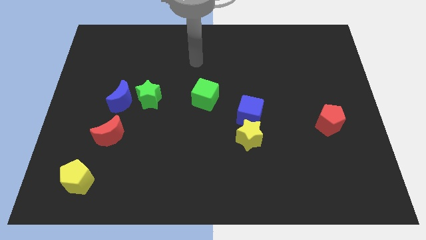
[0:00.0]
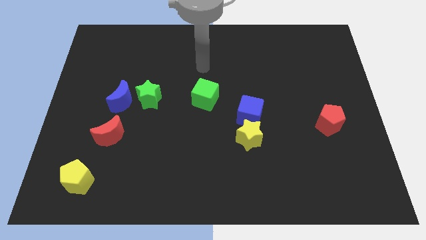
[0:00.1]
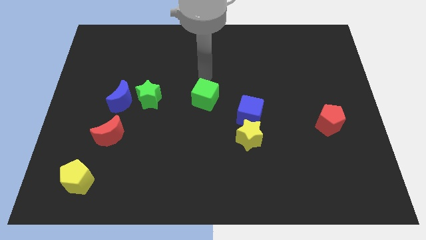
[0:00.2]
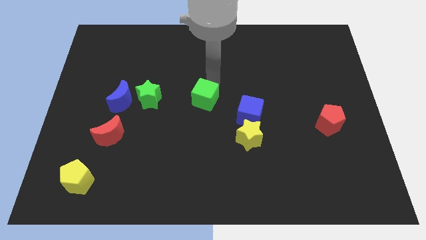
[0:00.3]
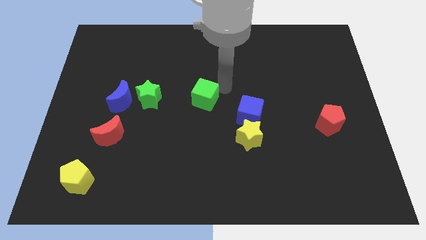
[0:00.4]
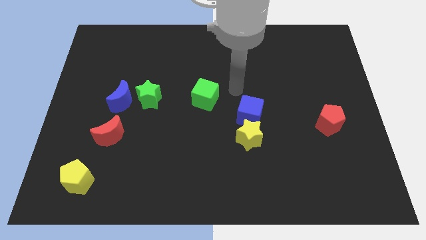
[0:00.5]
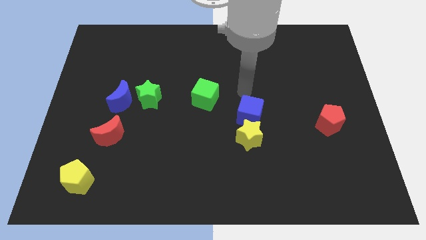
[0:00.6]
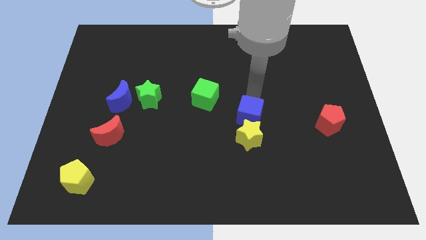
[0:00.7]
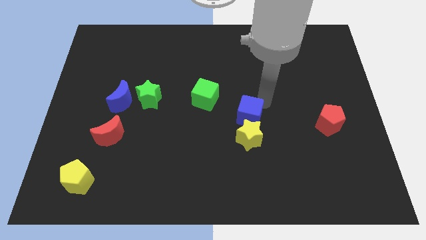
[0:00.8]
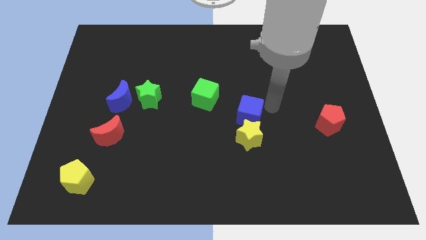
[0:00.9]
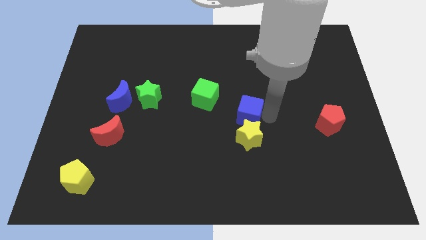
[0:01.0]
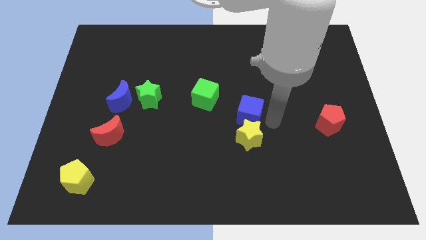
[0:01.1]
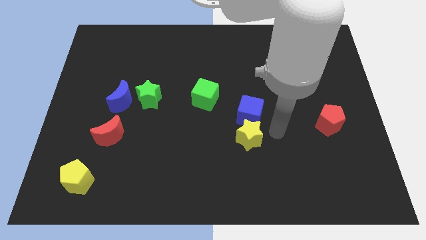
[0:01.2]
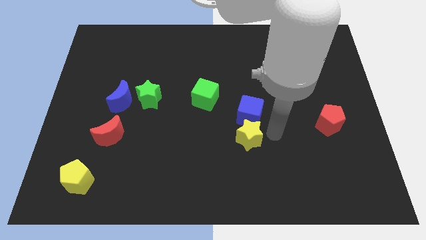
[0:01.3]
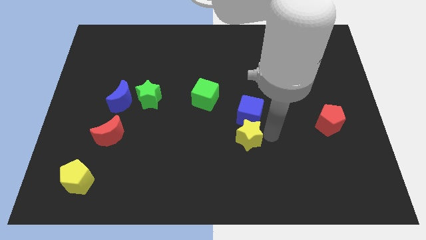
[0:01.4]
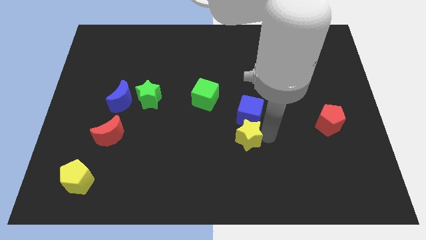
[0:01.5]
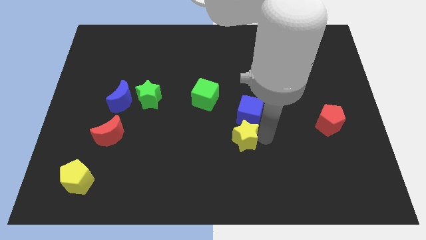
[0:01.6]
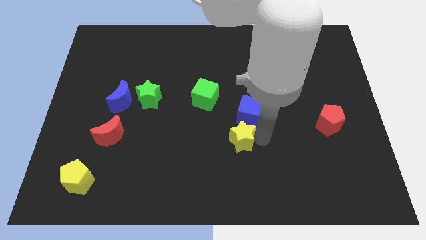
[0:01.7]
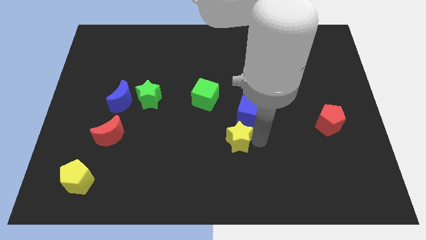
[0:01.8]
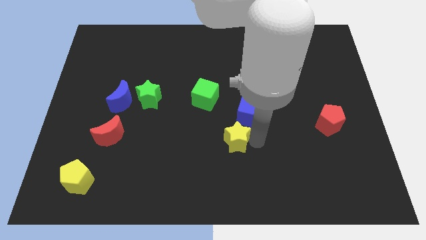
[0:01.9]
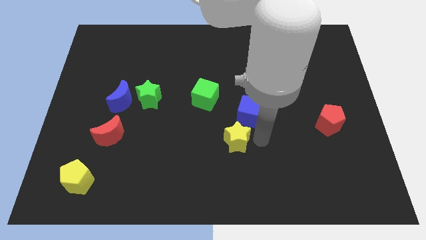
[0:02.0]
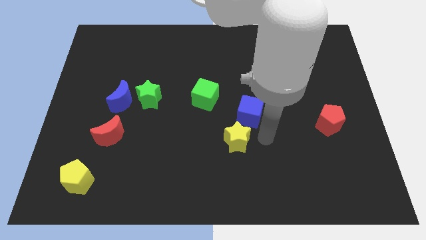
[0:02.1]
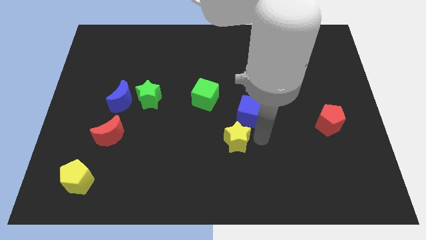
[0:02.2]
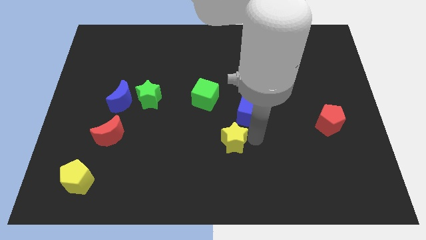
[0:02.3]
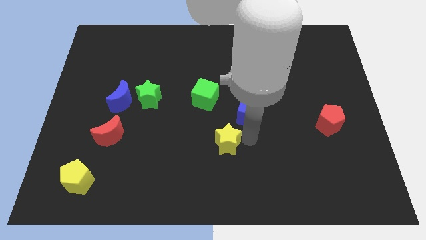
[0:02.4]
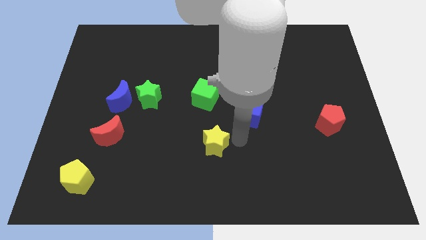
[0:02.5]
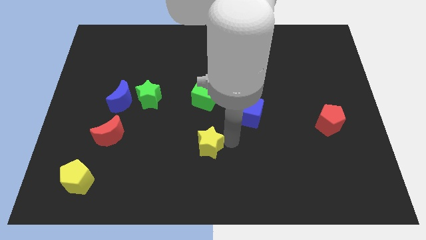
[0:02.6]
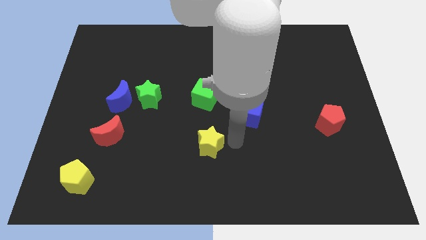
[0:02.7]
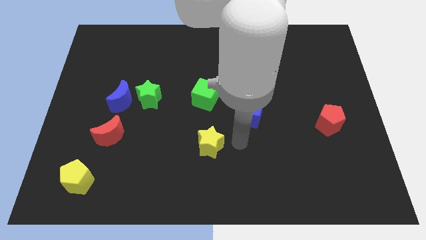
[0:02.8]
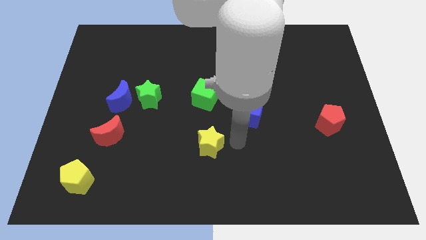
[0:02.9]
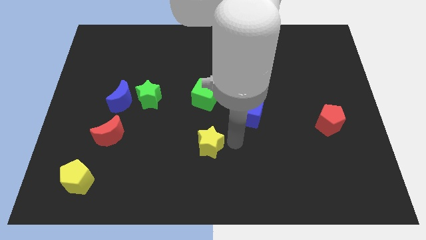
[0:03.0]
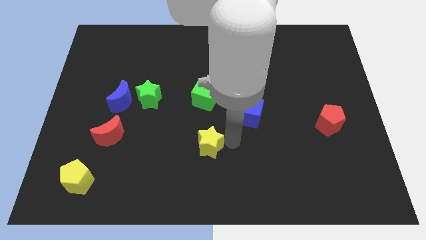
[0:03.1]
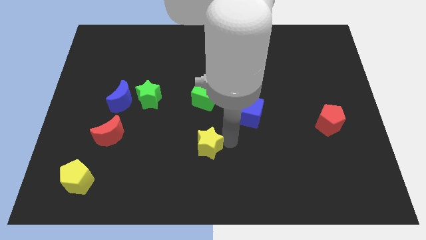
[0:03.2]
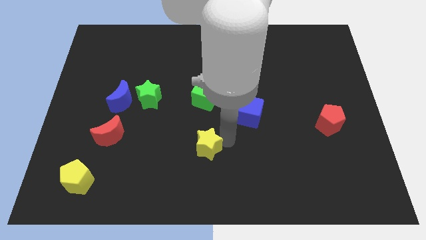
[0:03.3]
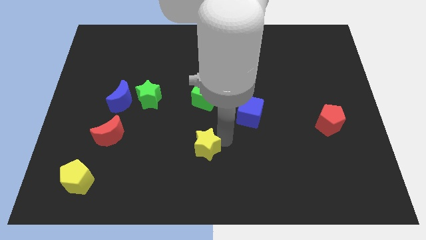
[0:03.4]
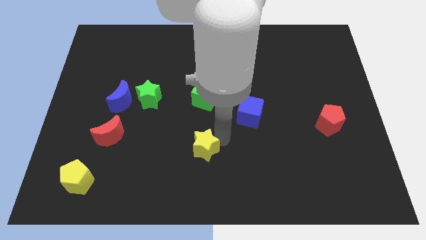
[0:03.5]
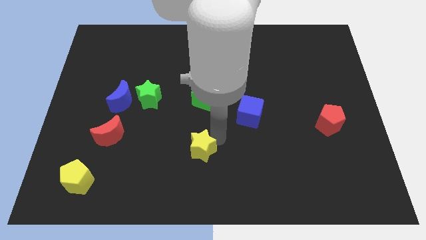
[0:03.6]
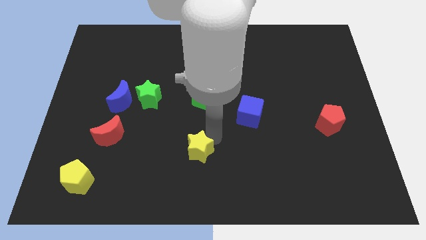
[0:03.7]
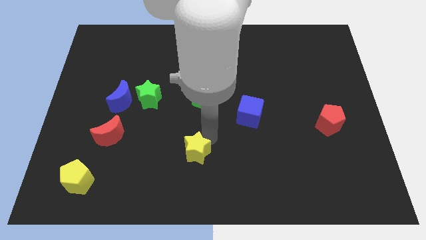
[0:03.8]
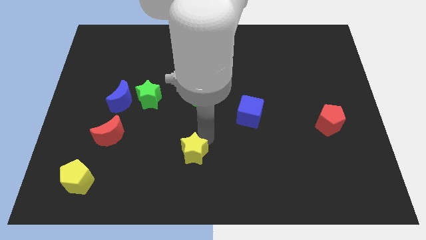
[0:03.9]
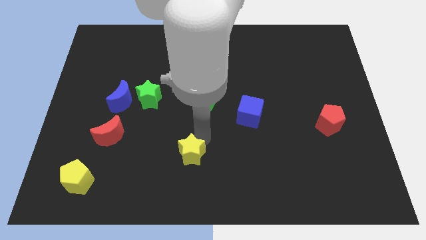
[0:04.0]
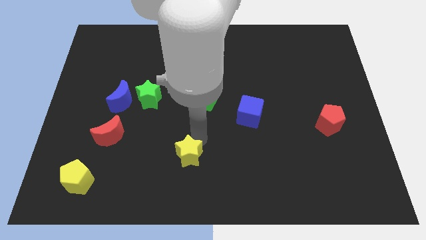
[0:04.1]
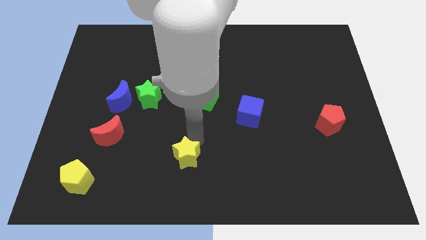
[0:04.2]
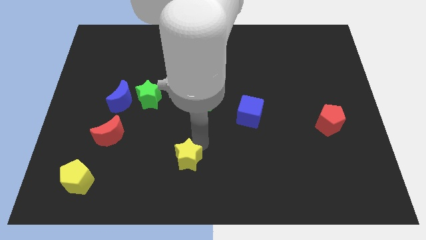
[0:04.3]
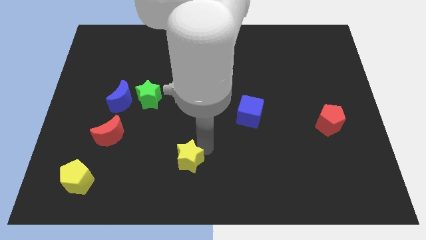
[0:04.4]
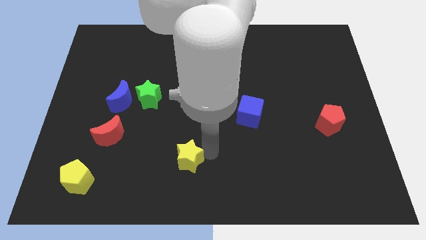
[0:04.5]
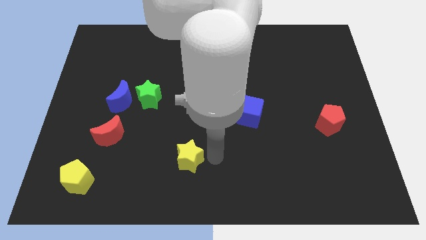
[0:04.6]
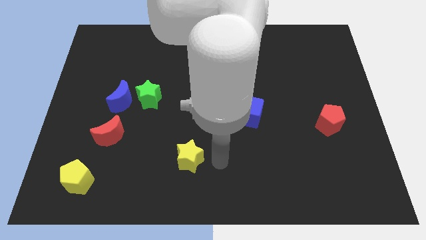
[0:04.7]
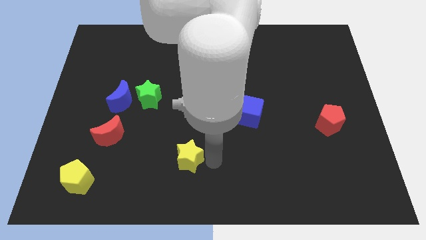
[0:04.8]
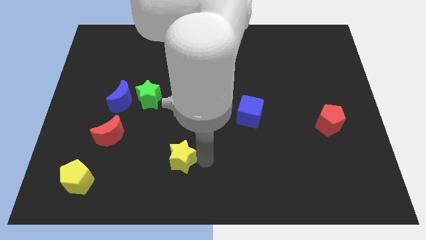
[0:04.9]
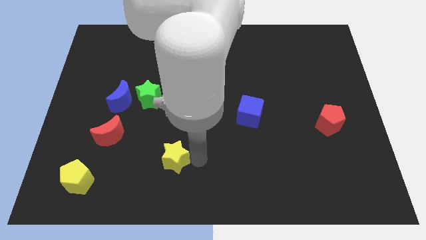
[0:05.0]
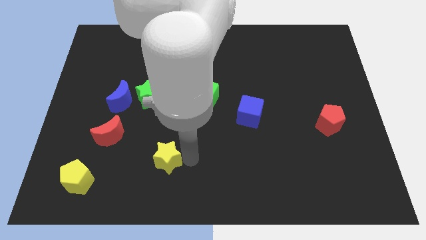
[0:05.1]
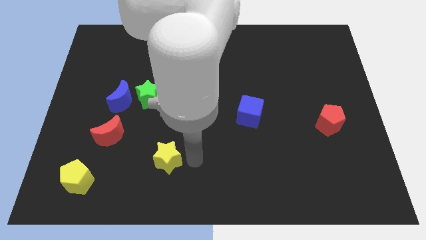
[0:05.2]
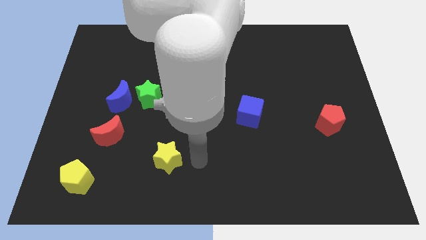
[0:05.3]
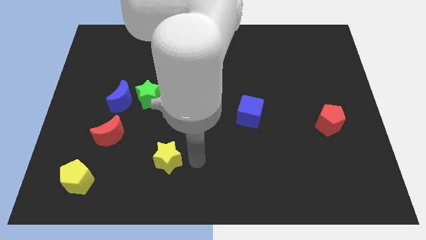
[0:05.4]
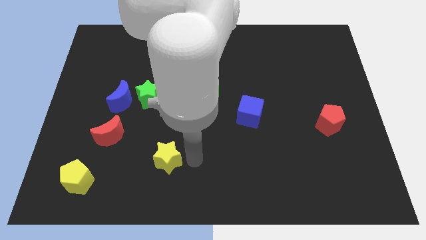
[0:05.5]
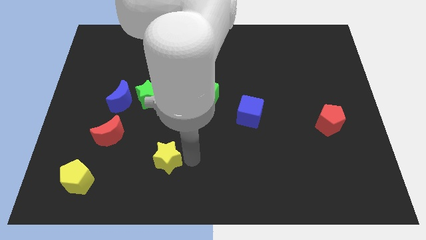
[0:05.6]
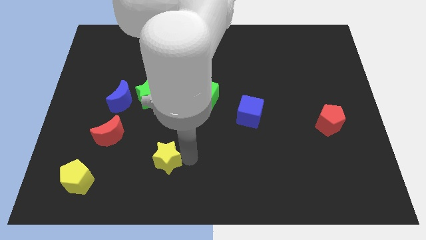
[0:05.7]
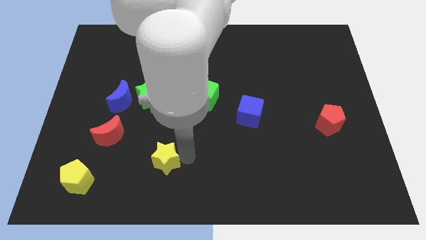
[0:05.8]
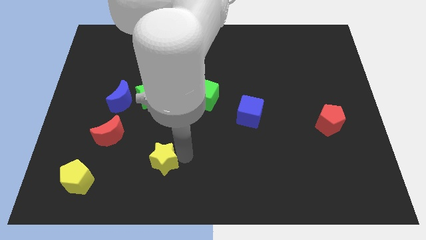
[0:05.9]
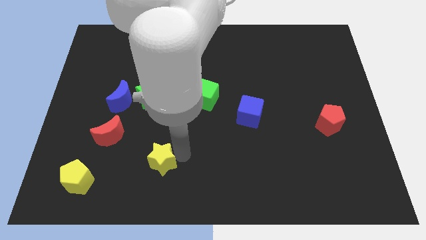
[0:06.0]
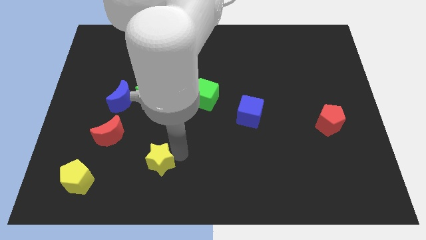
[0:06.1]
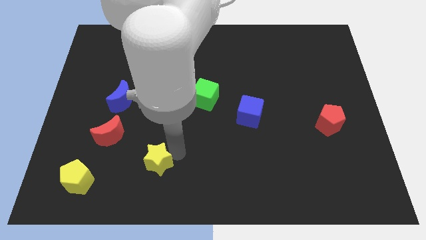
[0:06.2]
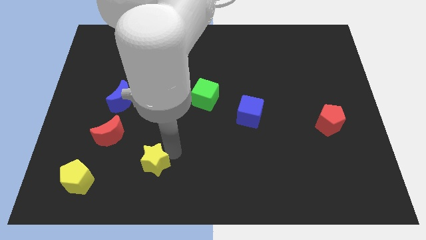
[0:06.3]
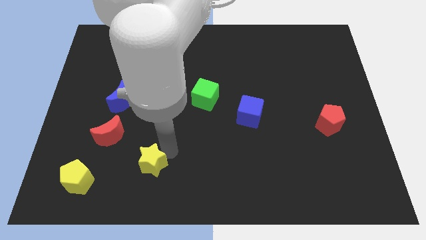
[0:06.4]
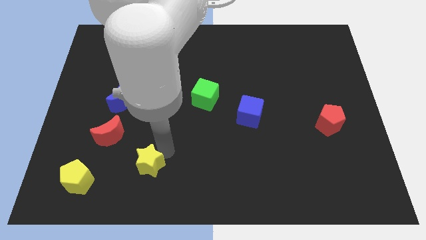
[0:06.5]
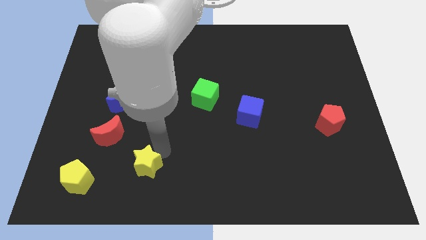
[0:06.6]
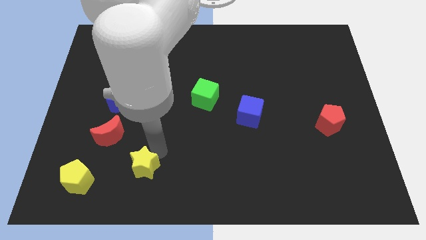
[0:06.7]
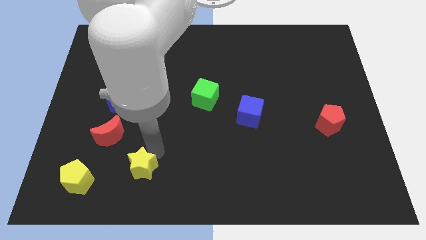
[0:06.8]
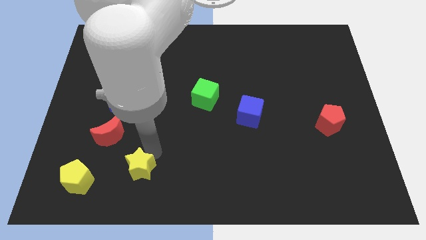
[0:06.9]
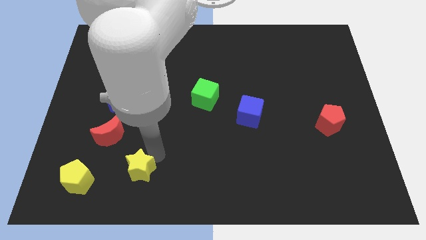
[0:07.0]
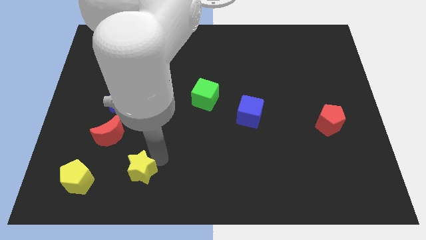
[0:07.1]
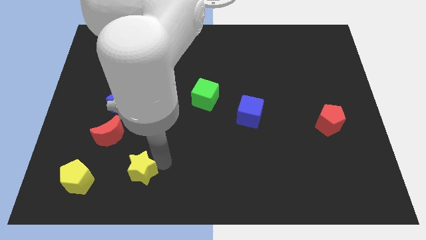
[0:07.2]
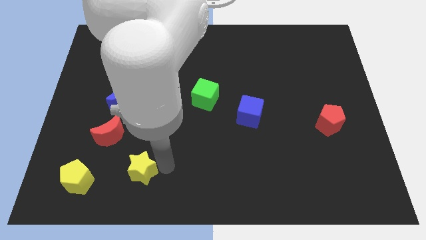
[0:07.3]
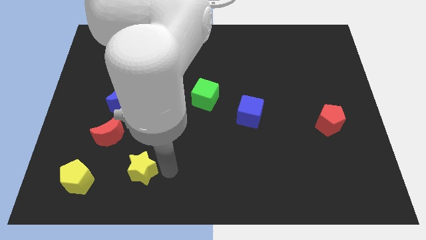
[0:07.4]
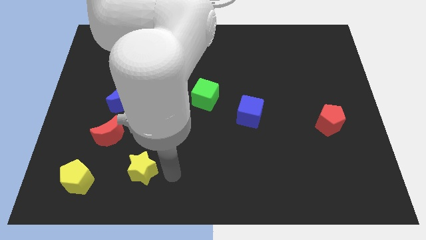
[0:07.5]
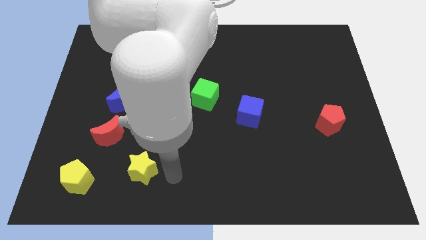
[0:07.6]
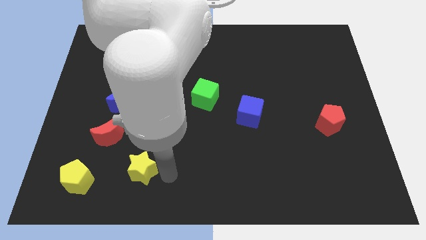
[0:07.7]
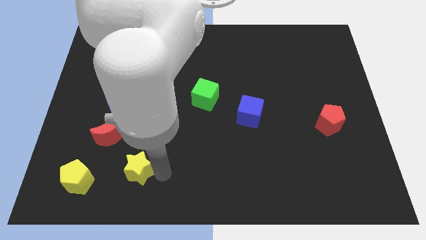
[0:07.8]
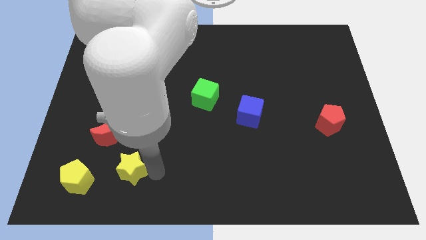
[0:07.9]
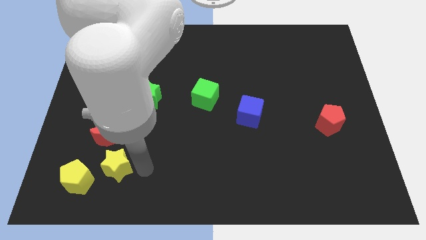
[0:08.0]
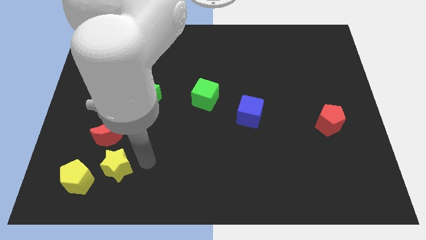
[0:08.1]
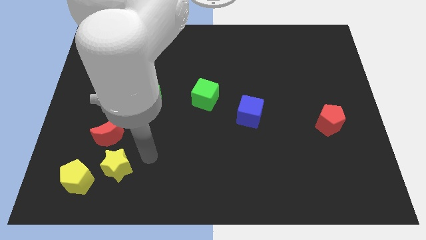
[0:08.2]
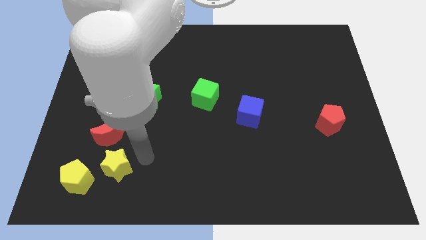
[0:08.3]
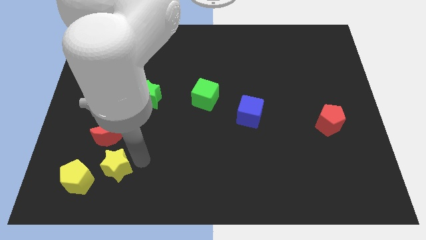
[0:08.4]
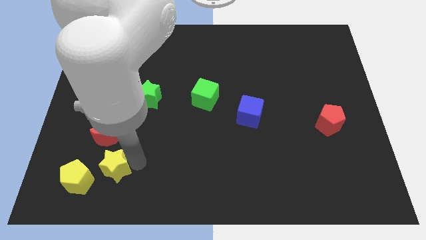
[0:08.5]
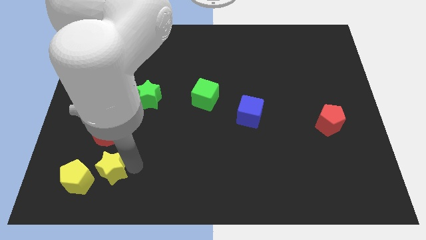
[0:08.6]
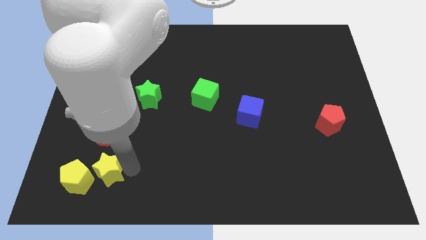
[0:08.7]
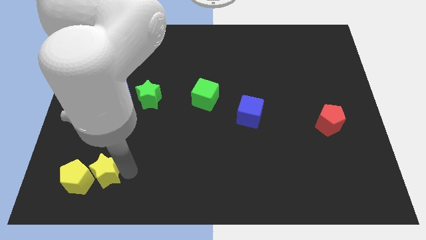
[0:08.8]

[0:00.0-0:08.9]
move the yellow star to the yellow pentagon
